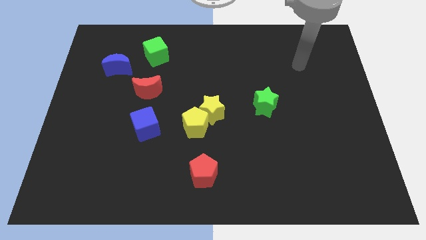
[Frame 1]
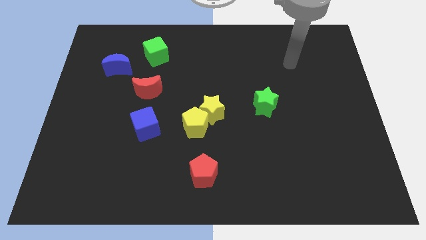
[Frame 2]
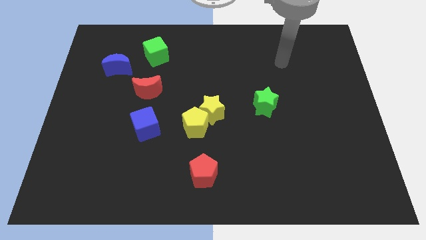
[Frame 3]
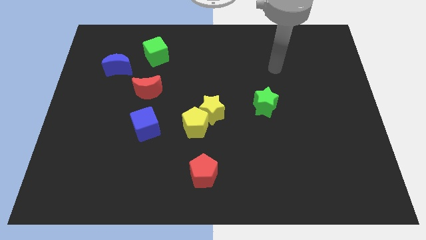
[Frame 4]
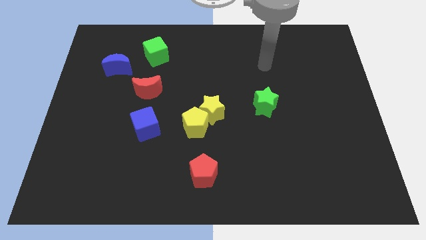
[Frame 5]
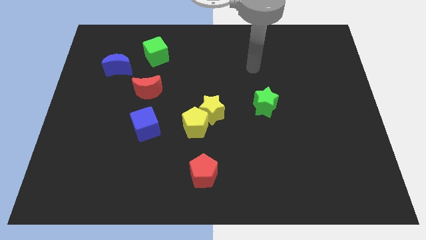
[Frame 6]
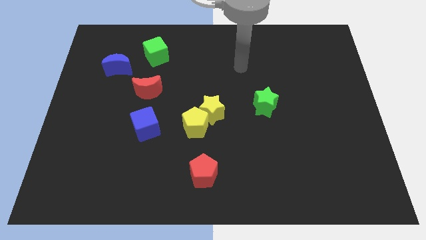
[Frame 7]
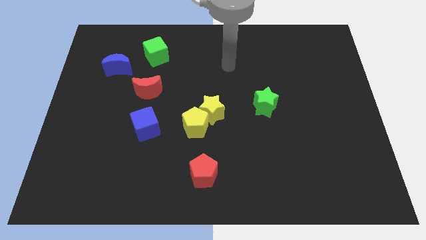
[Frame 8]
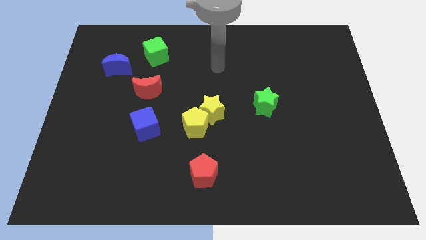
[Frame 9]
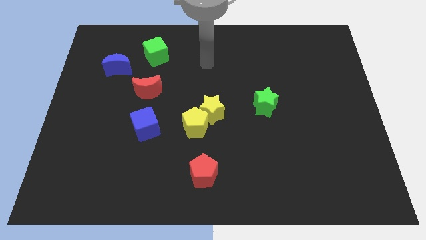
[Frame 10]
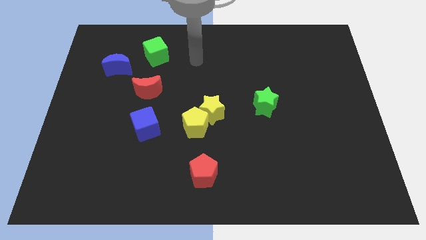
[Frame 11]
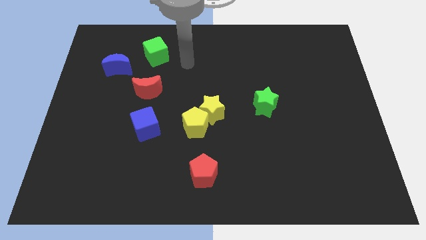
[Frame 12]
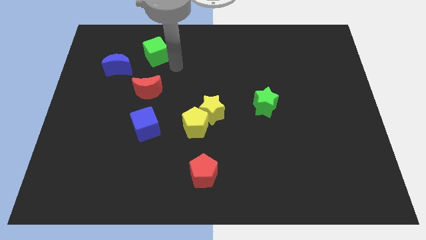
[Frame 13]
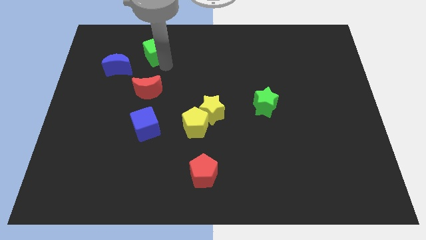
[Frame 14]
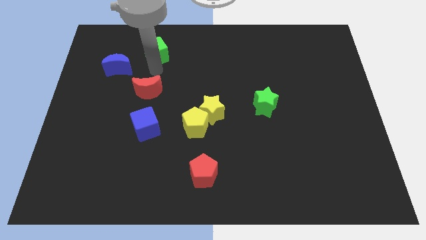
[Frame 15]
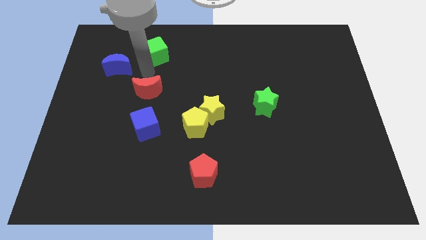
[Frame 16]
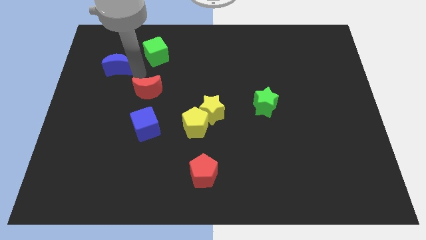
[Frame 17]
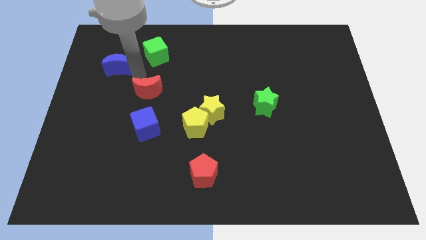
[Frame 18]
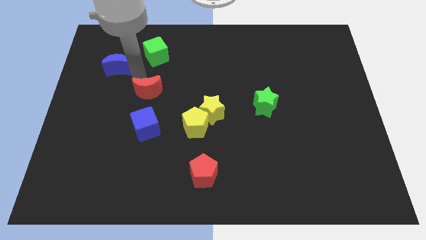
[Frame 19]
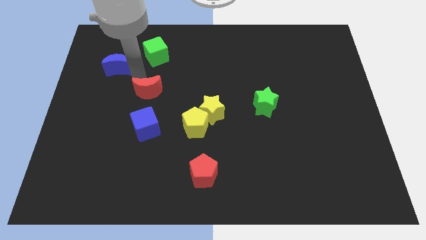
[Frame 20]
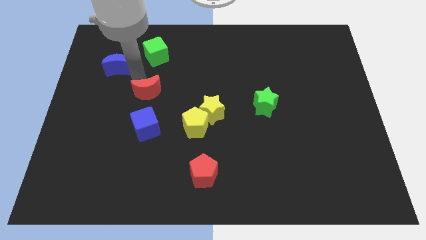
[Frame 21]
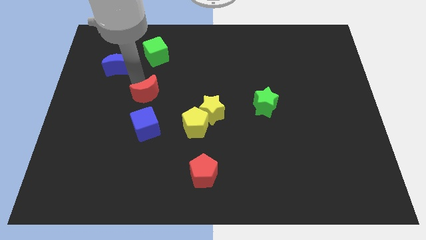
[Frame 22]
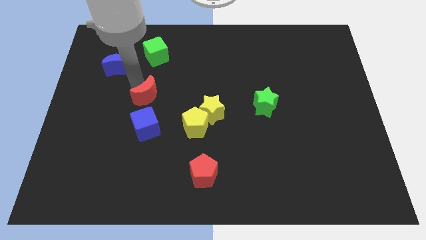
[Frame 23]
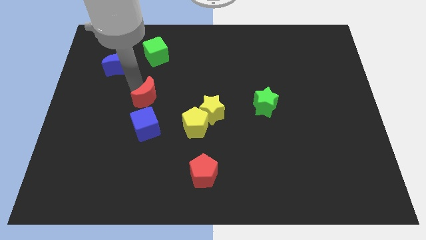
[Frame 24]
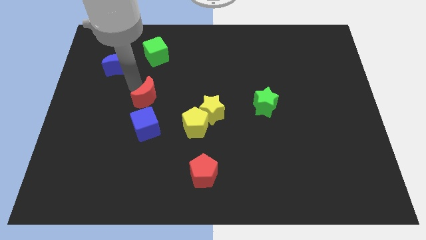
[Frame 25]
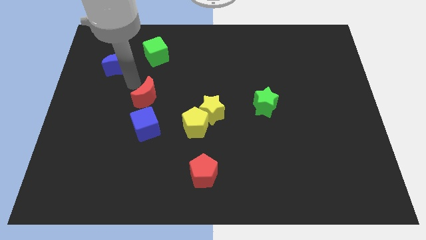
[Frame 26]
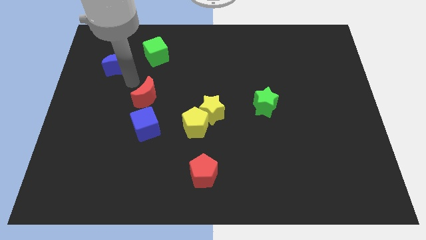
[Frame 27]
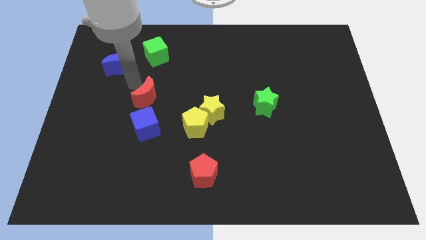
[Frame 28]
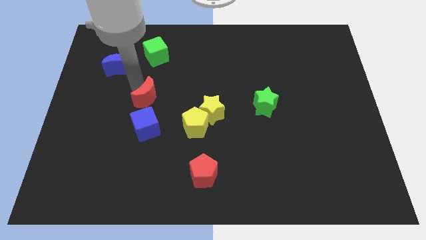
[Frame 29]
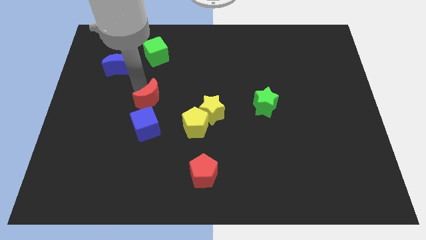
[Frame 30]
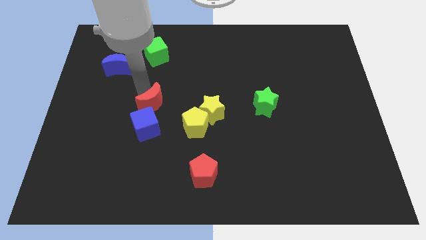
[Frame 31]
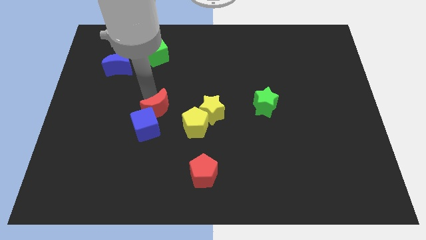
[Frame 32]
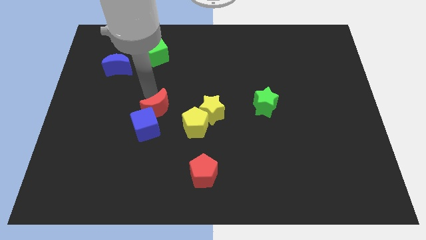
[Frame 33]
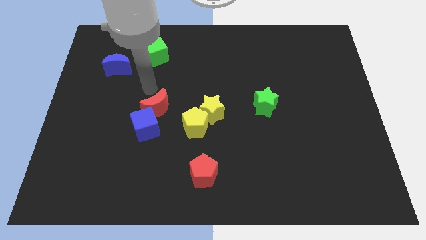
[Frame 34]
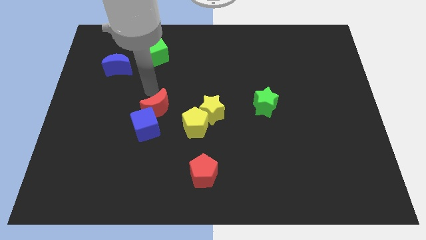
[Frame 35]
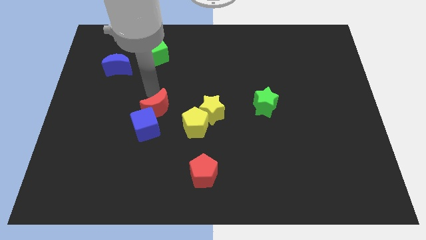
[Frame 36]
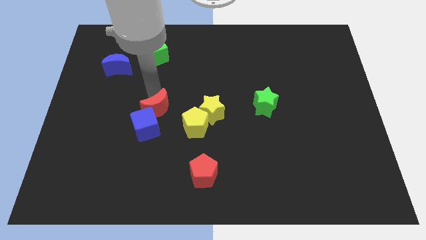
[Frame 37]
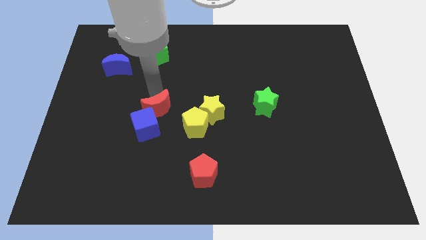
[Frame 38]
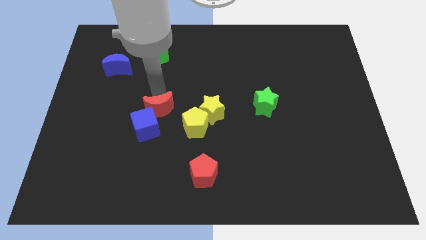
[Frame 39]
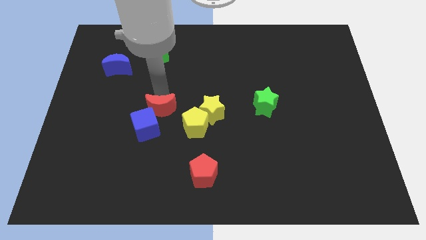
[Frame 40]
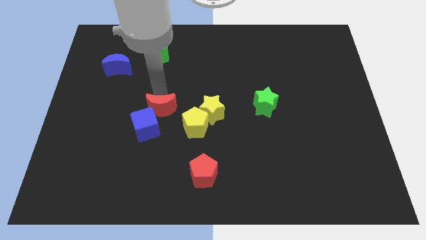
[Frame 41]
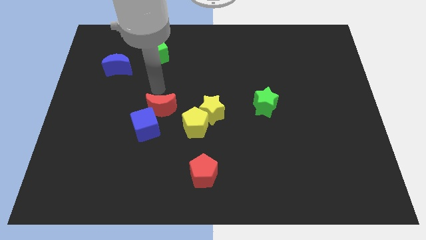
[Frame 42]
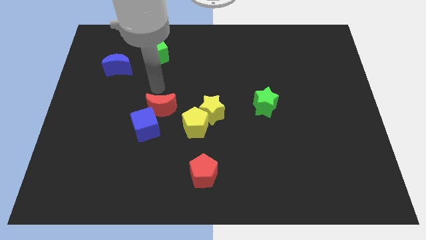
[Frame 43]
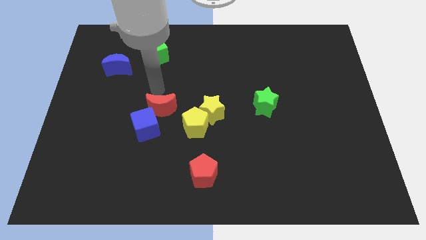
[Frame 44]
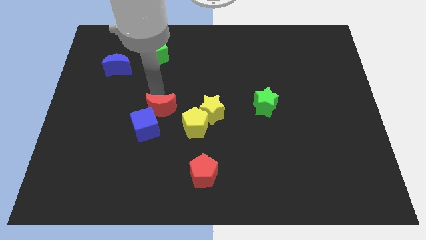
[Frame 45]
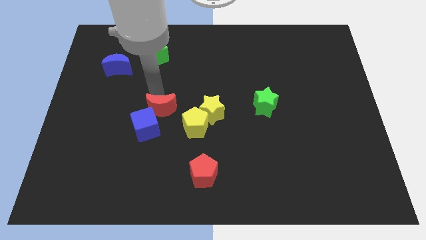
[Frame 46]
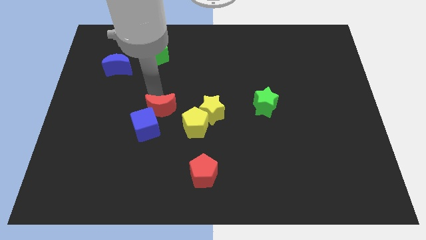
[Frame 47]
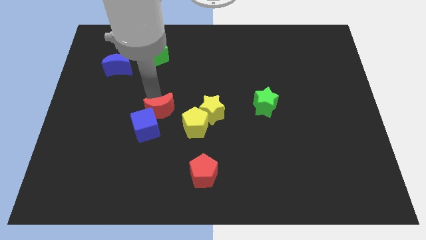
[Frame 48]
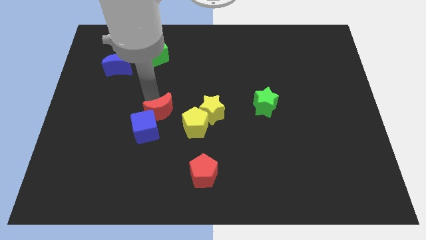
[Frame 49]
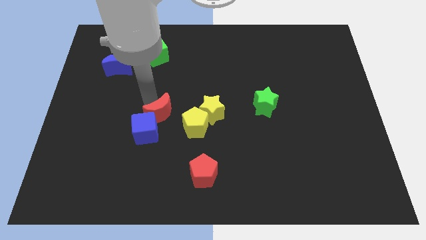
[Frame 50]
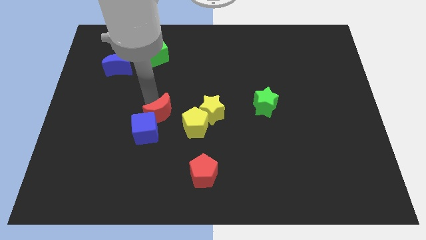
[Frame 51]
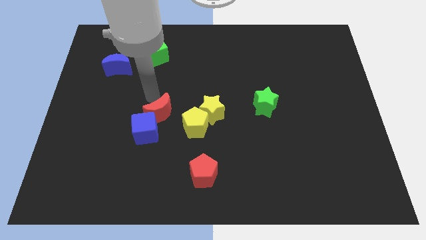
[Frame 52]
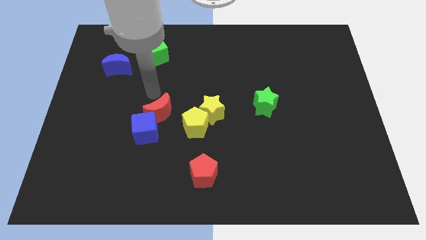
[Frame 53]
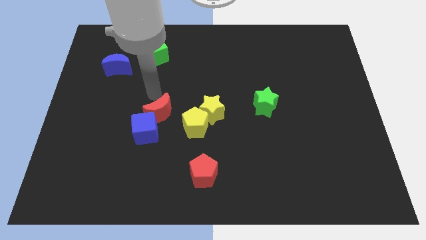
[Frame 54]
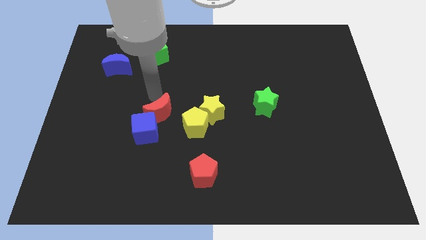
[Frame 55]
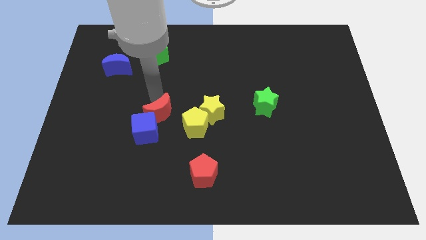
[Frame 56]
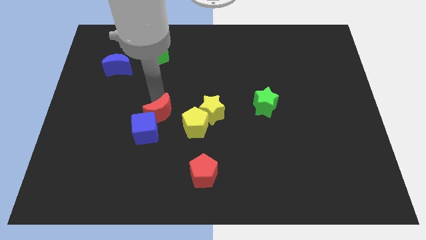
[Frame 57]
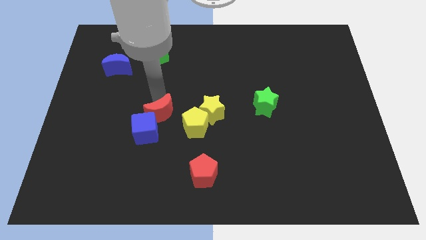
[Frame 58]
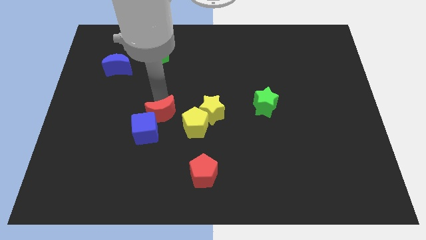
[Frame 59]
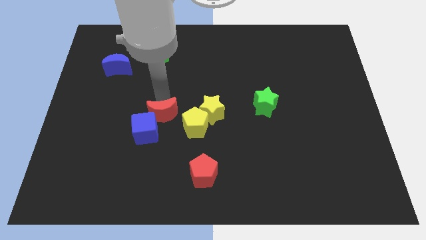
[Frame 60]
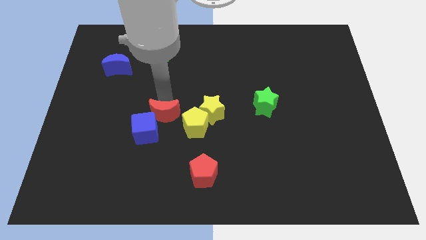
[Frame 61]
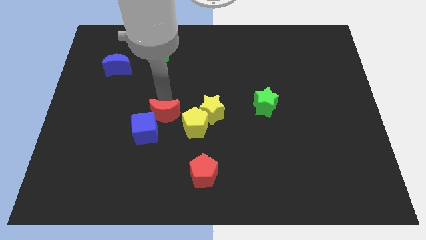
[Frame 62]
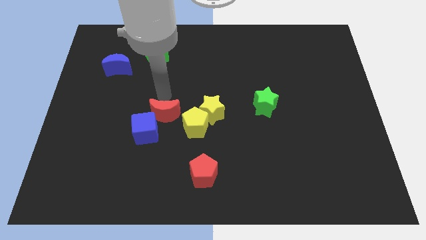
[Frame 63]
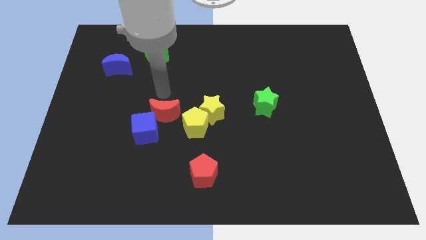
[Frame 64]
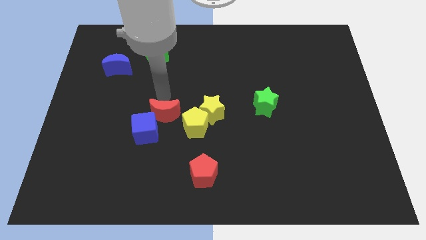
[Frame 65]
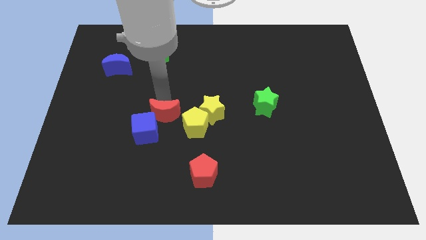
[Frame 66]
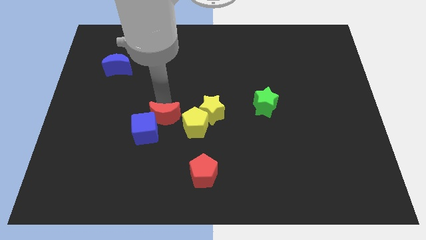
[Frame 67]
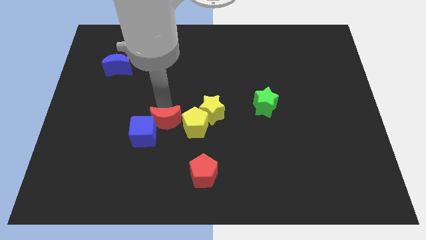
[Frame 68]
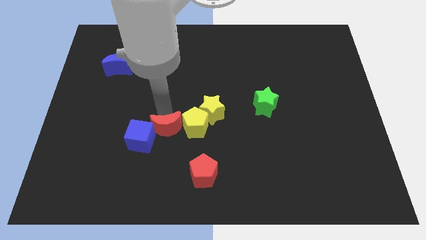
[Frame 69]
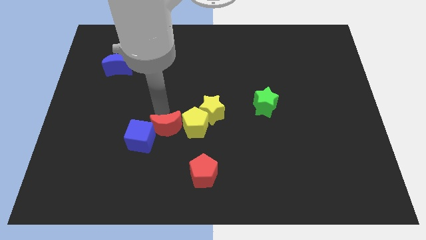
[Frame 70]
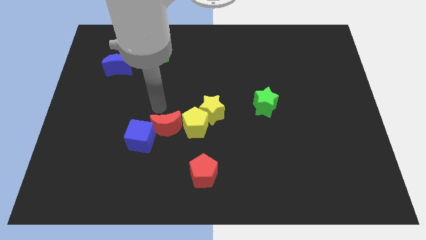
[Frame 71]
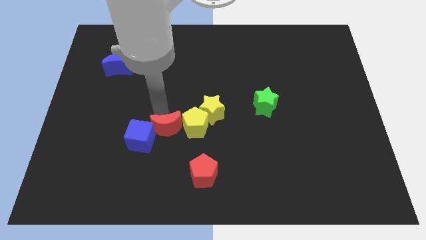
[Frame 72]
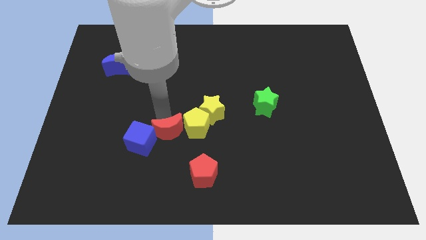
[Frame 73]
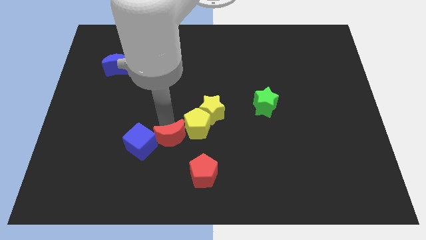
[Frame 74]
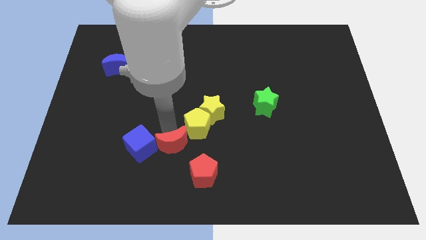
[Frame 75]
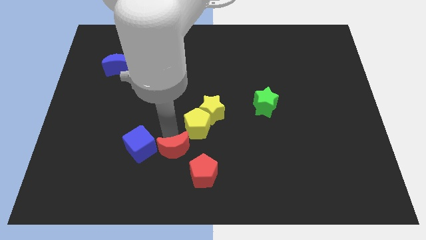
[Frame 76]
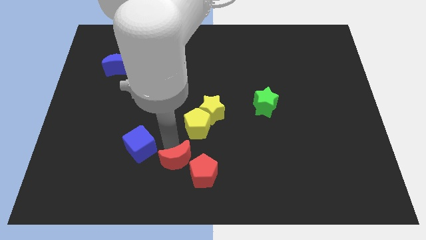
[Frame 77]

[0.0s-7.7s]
put the red moon close to the red pentagon
